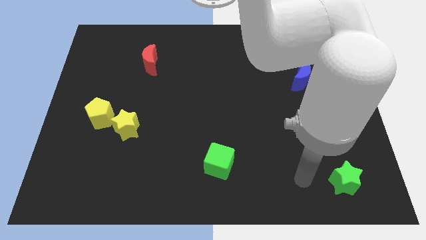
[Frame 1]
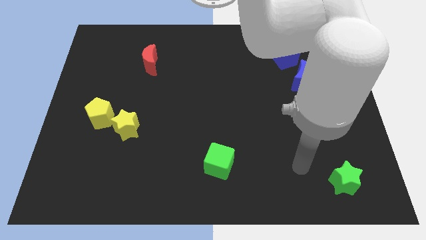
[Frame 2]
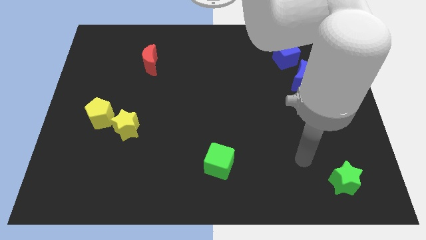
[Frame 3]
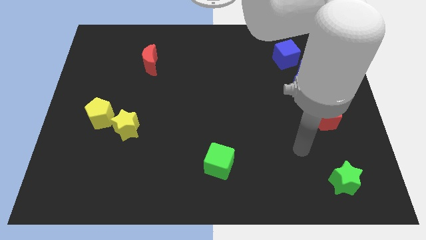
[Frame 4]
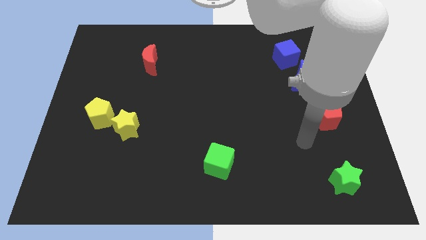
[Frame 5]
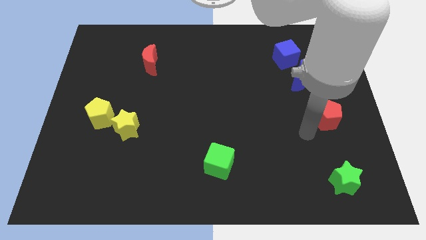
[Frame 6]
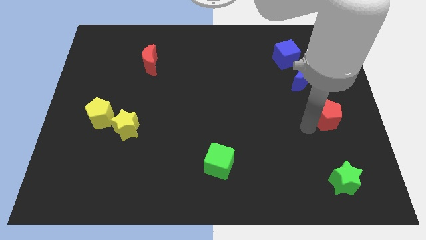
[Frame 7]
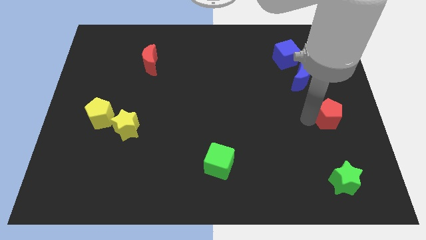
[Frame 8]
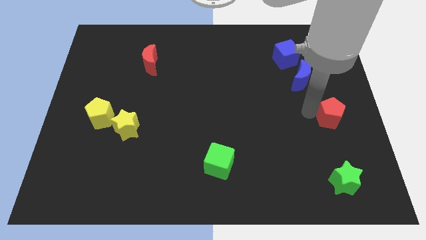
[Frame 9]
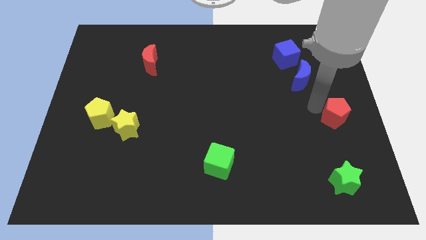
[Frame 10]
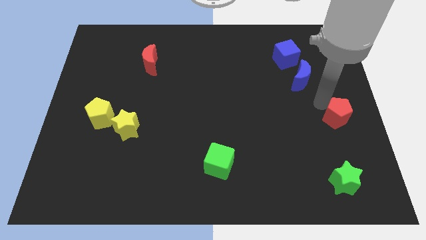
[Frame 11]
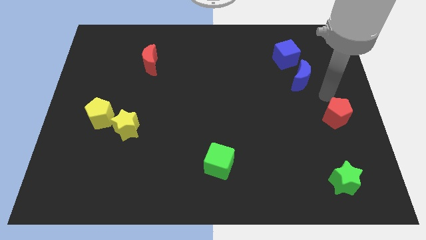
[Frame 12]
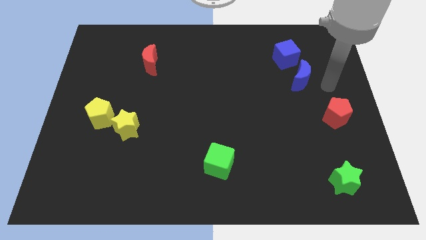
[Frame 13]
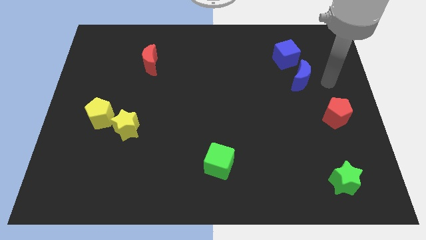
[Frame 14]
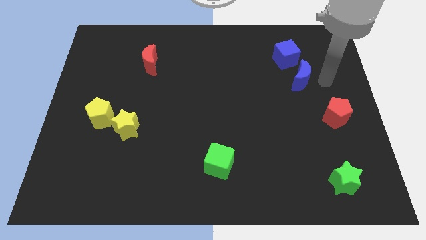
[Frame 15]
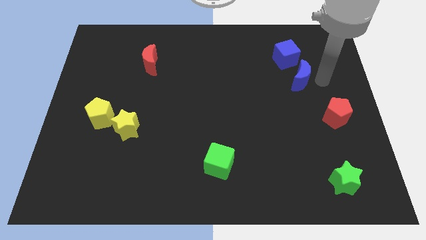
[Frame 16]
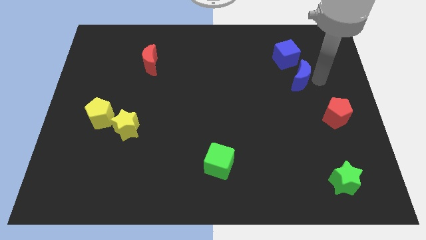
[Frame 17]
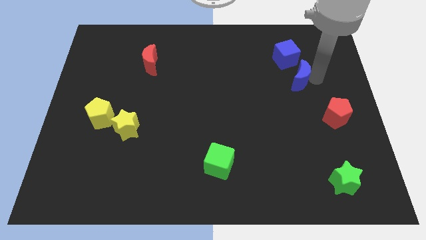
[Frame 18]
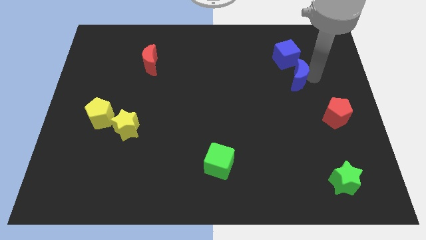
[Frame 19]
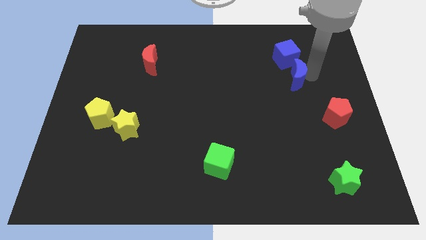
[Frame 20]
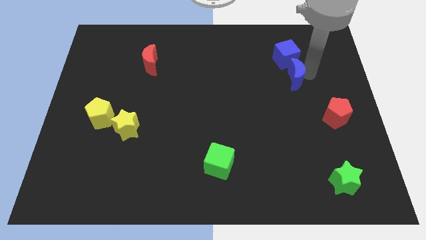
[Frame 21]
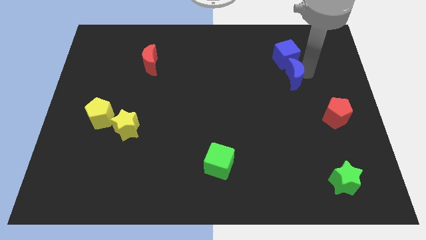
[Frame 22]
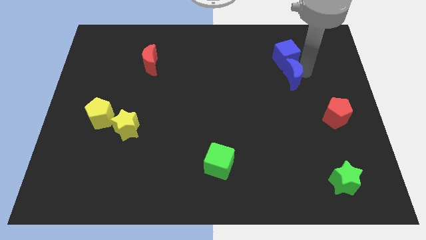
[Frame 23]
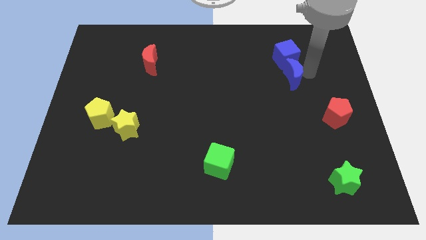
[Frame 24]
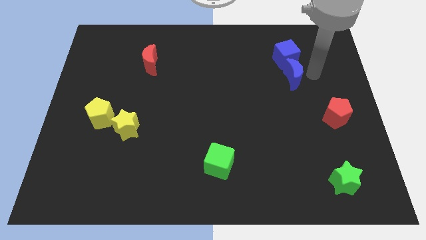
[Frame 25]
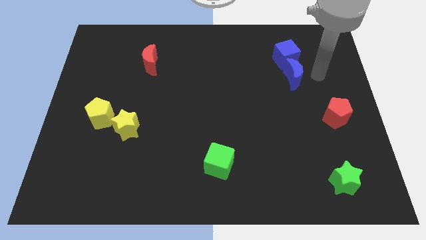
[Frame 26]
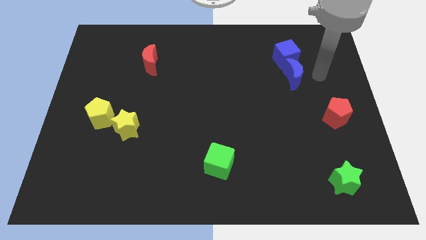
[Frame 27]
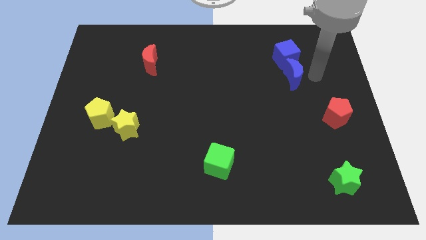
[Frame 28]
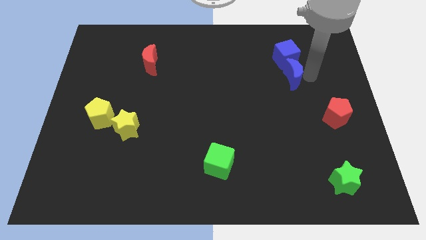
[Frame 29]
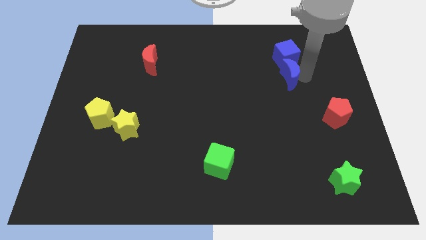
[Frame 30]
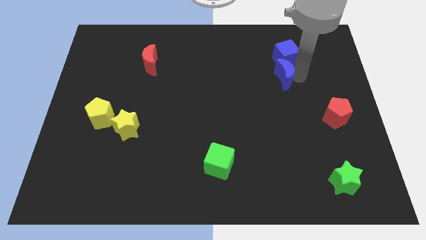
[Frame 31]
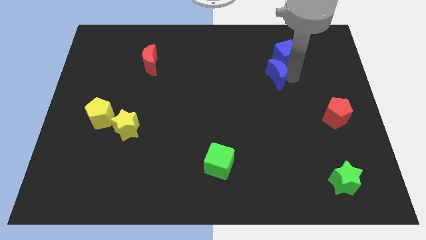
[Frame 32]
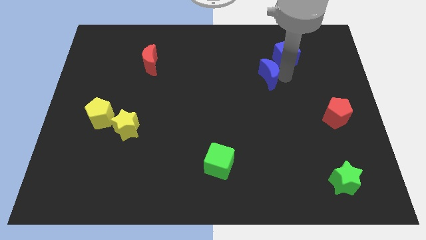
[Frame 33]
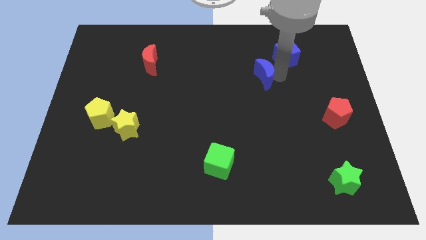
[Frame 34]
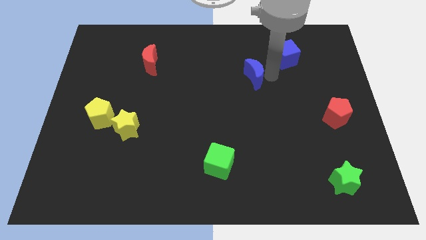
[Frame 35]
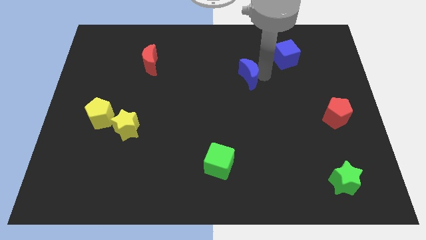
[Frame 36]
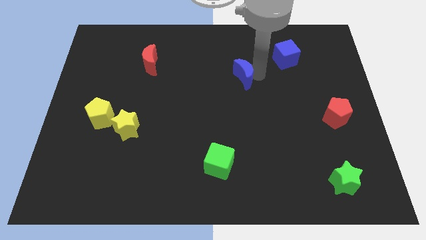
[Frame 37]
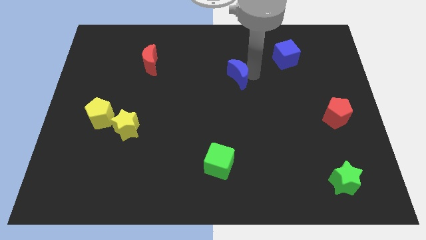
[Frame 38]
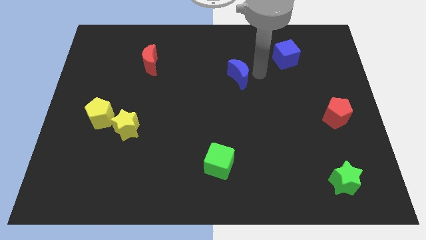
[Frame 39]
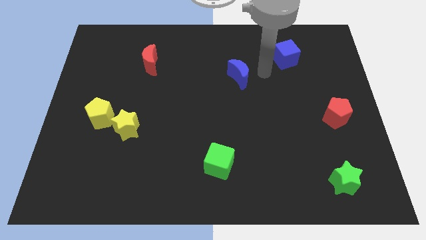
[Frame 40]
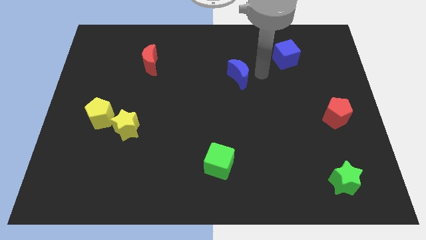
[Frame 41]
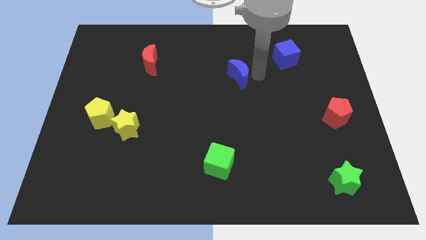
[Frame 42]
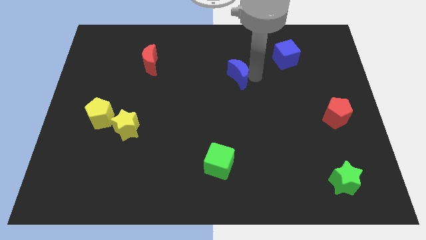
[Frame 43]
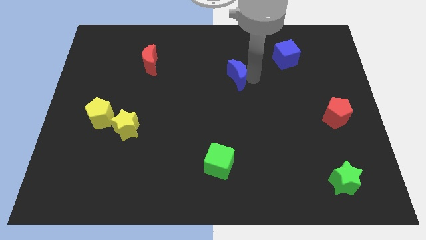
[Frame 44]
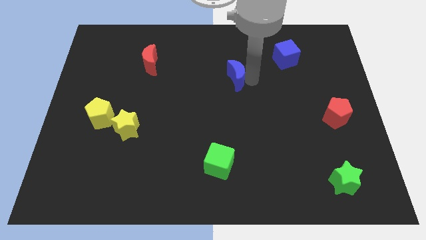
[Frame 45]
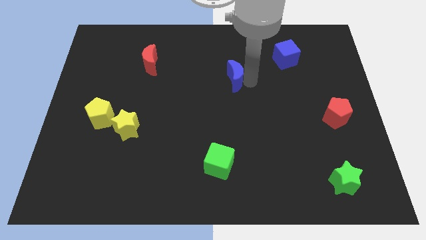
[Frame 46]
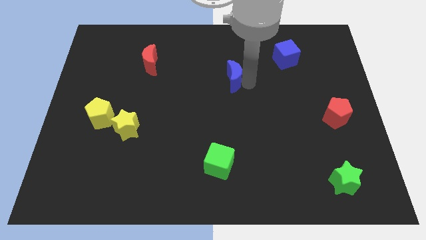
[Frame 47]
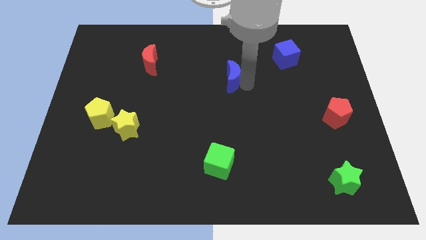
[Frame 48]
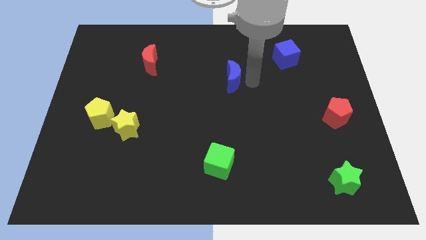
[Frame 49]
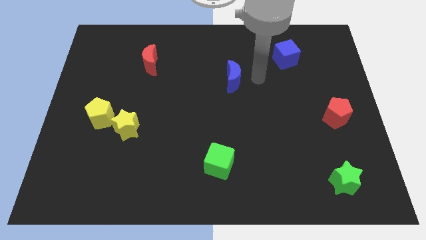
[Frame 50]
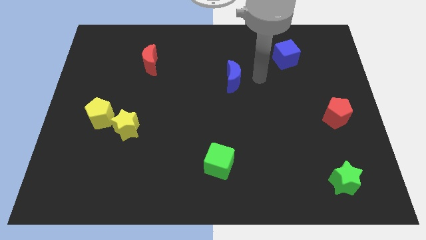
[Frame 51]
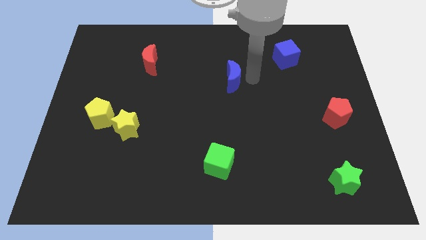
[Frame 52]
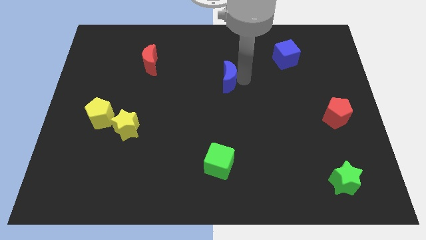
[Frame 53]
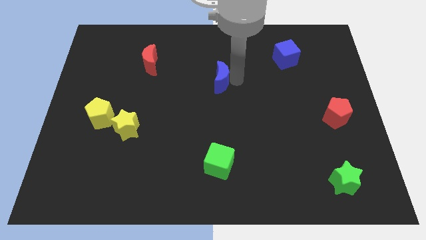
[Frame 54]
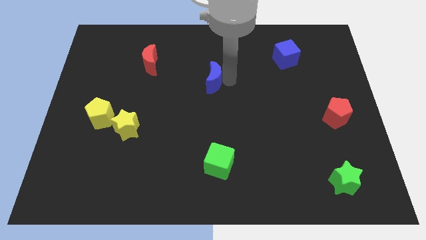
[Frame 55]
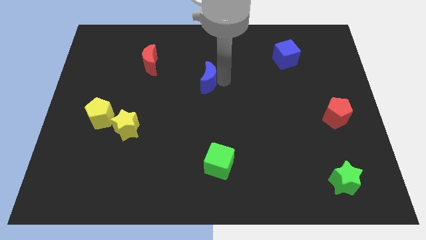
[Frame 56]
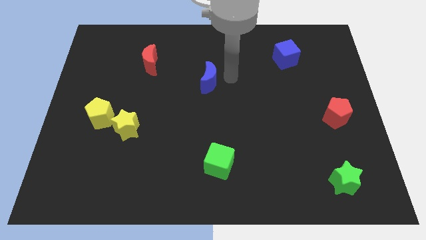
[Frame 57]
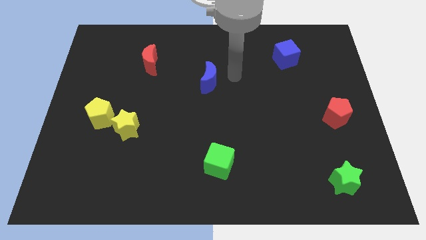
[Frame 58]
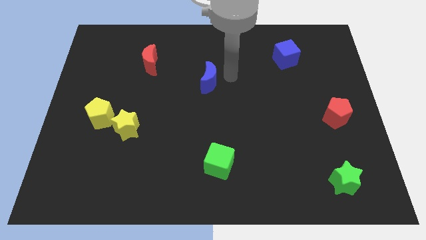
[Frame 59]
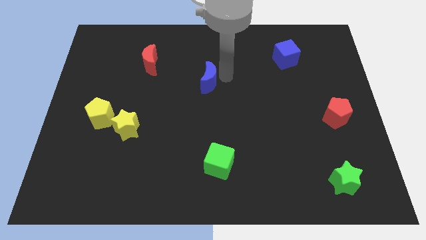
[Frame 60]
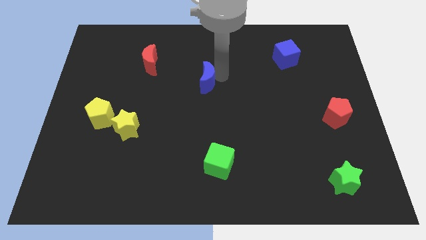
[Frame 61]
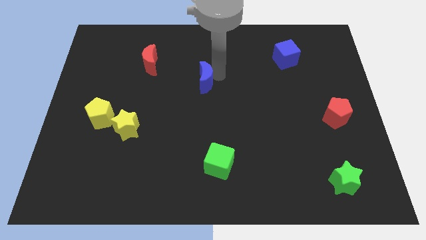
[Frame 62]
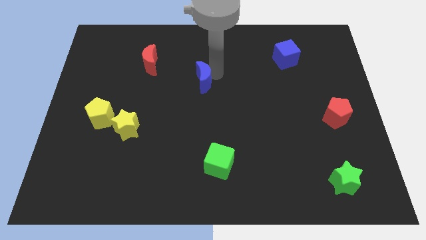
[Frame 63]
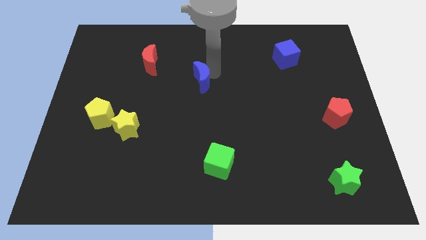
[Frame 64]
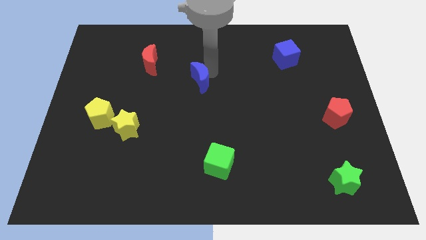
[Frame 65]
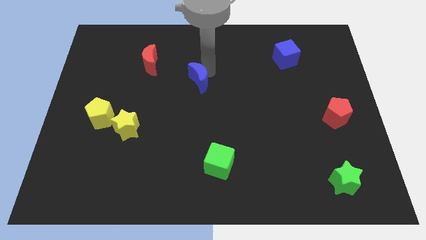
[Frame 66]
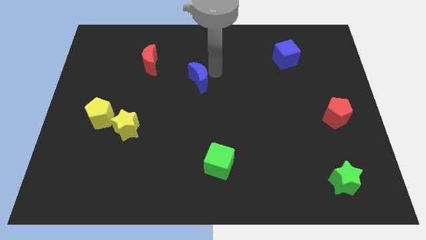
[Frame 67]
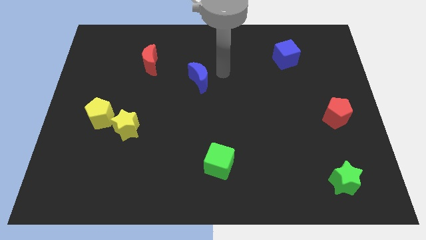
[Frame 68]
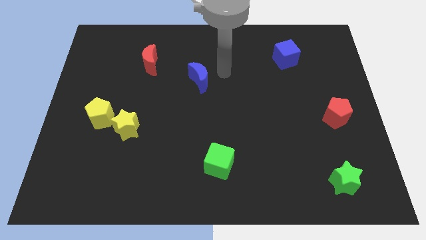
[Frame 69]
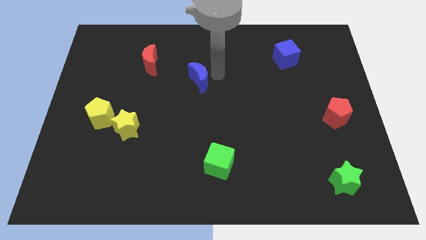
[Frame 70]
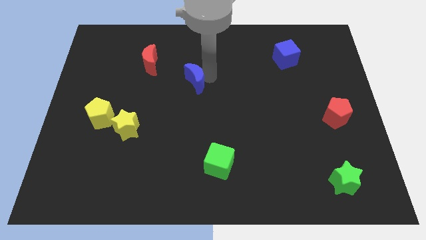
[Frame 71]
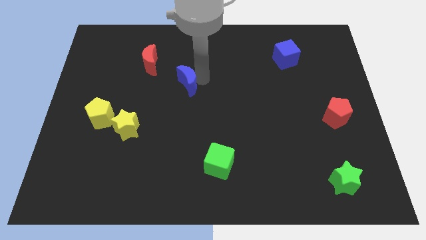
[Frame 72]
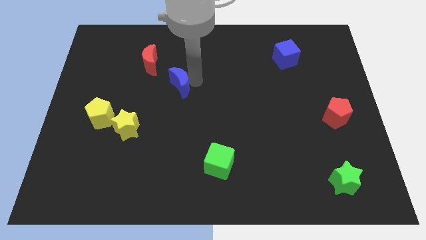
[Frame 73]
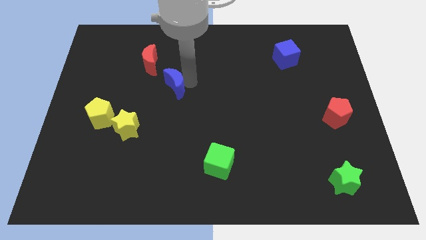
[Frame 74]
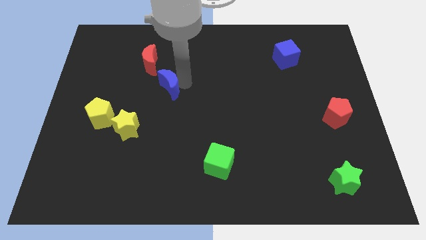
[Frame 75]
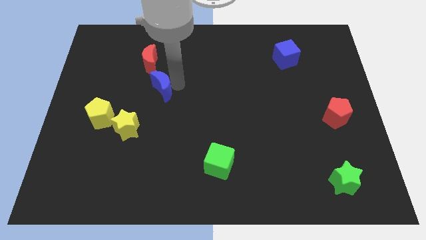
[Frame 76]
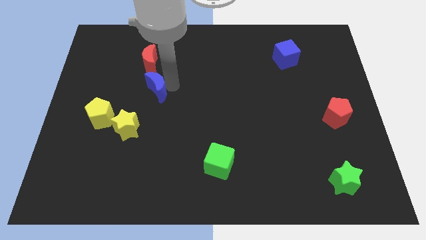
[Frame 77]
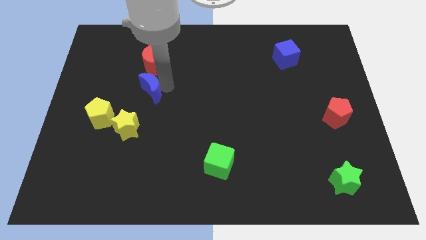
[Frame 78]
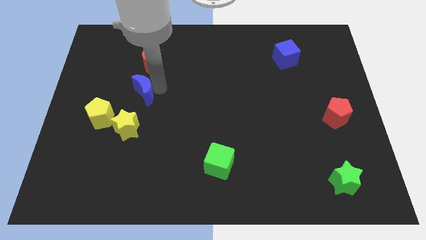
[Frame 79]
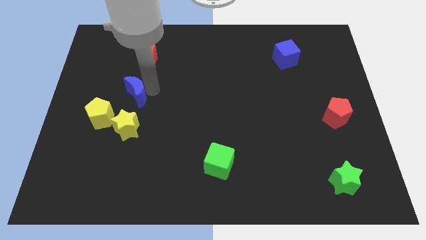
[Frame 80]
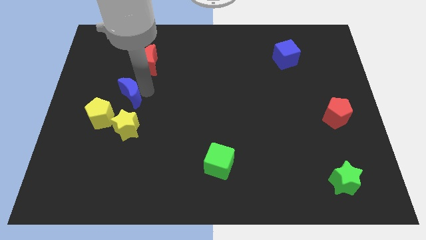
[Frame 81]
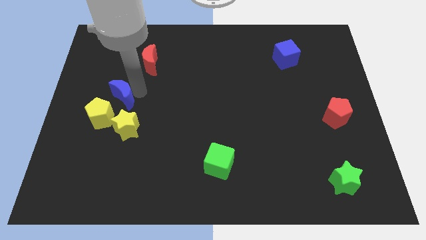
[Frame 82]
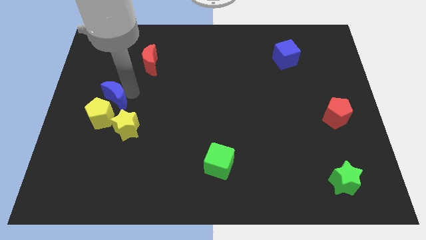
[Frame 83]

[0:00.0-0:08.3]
push the blue moon to the top left side of the yellow star
